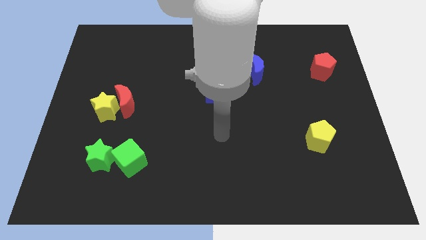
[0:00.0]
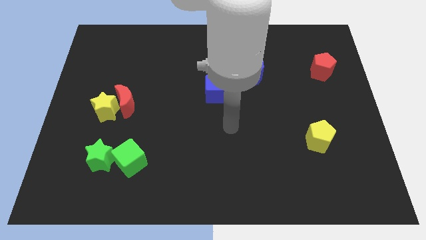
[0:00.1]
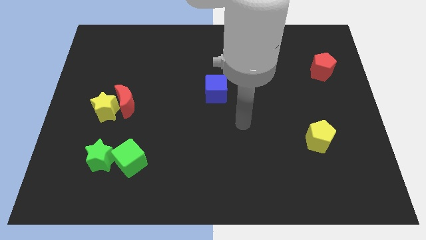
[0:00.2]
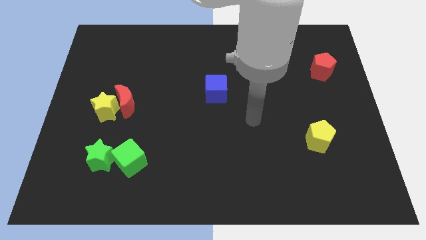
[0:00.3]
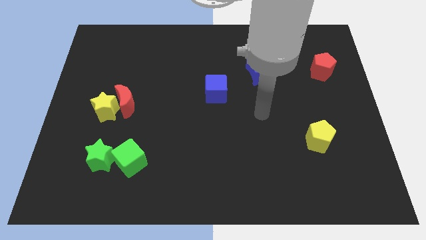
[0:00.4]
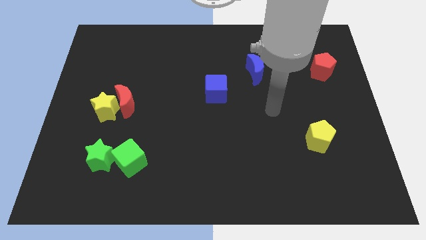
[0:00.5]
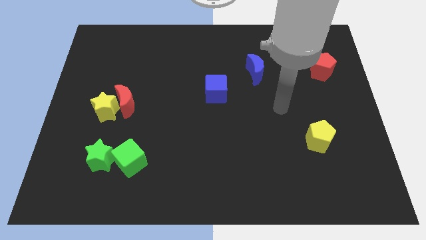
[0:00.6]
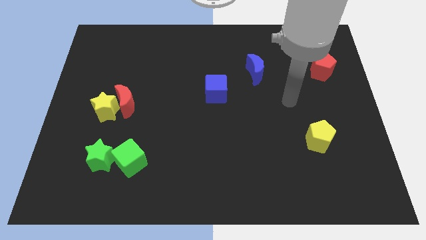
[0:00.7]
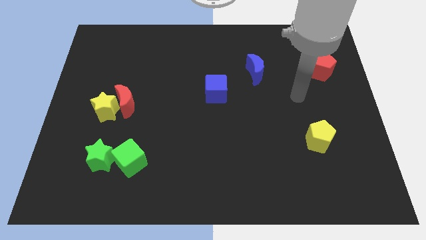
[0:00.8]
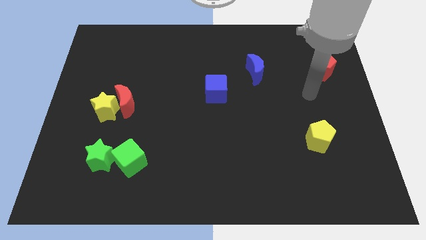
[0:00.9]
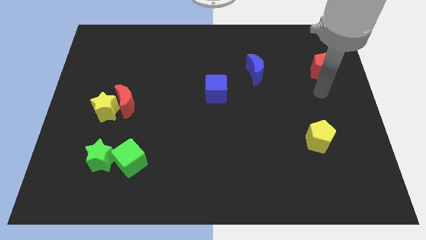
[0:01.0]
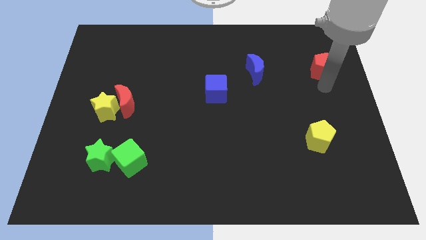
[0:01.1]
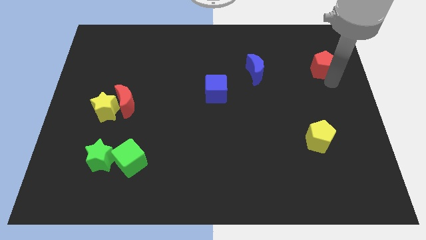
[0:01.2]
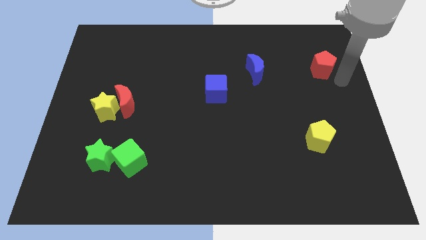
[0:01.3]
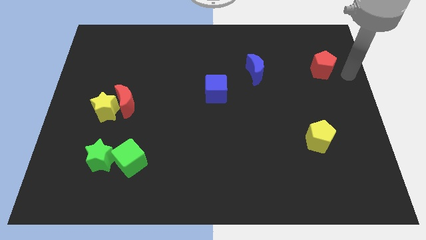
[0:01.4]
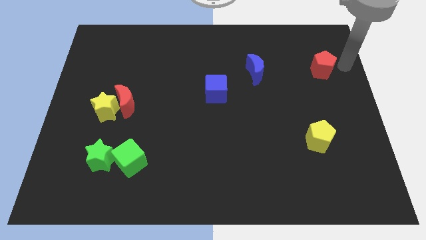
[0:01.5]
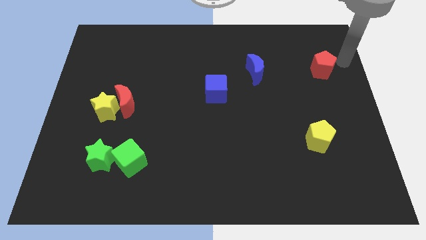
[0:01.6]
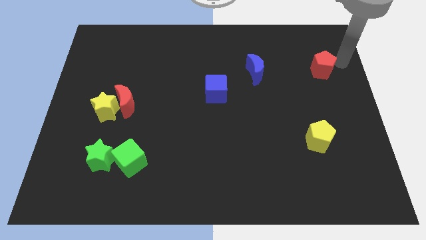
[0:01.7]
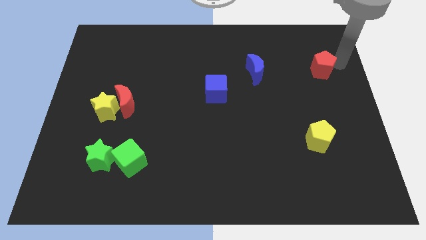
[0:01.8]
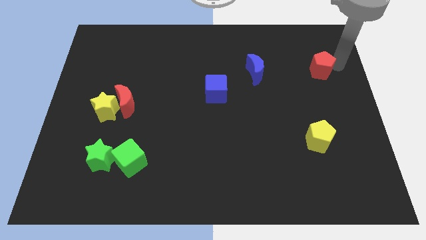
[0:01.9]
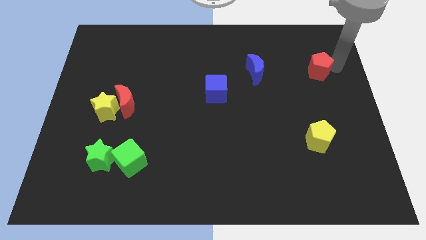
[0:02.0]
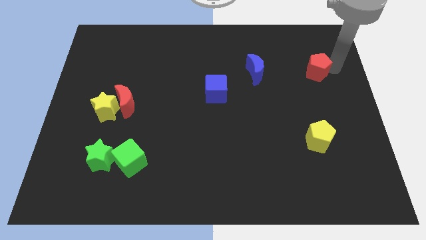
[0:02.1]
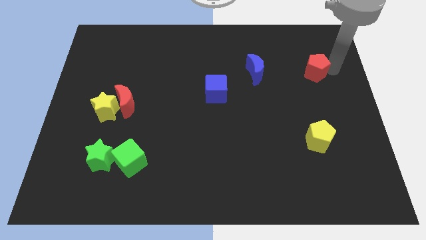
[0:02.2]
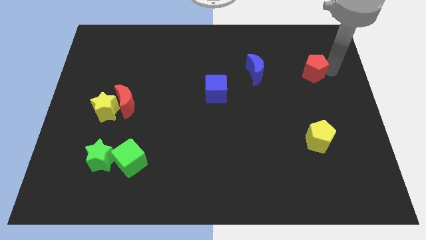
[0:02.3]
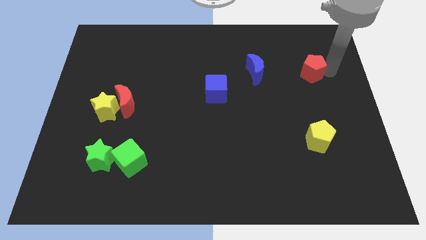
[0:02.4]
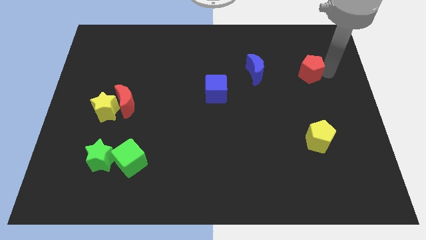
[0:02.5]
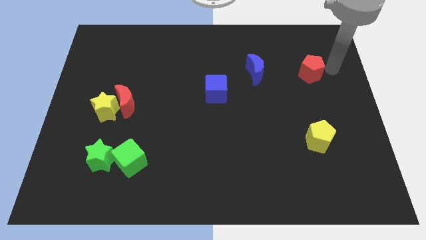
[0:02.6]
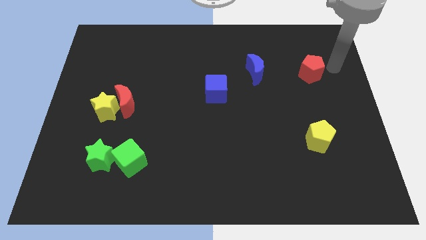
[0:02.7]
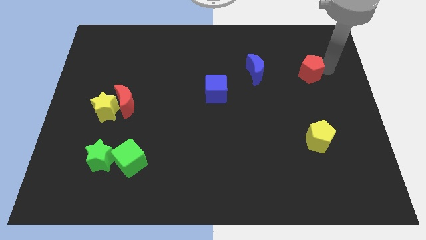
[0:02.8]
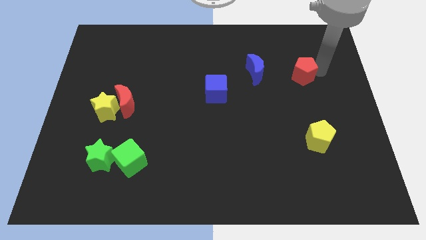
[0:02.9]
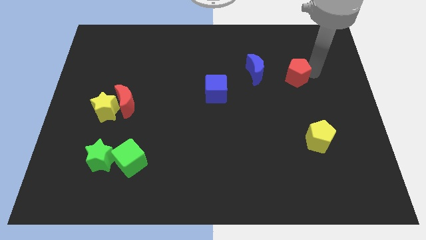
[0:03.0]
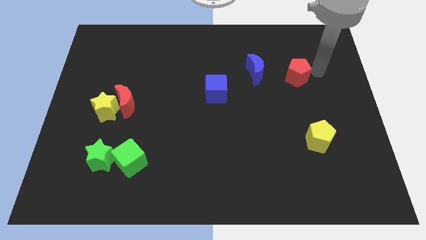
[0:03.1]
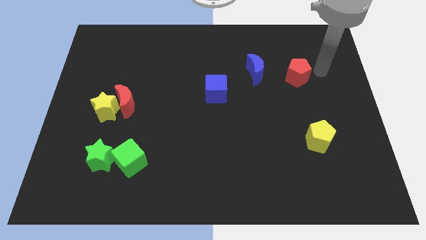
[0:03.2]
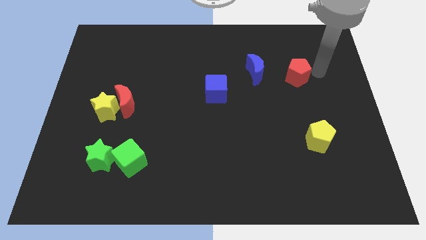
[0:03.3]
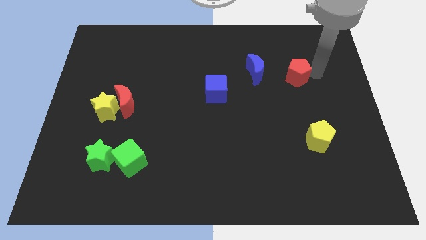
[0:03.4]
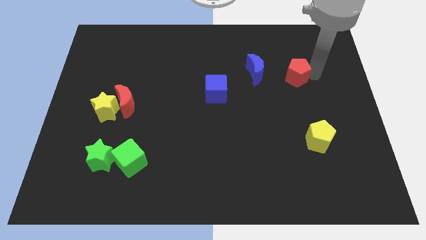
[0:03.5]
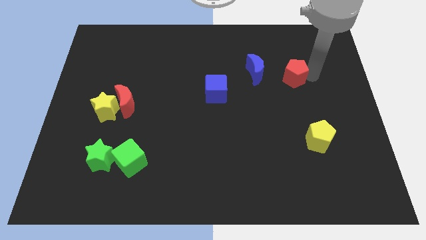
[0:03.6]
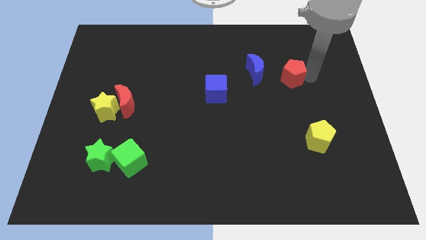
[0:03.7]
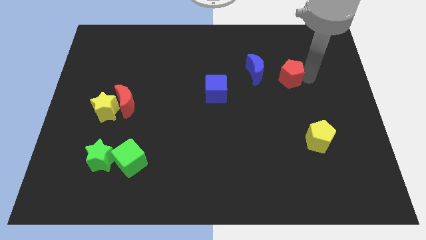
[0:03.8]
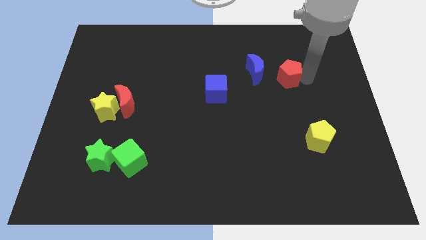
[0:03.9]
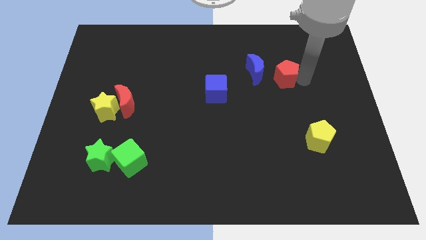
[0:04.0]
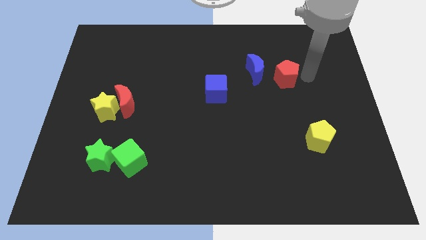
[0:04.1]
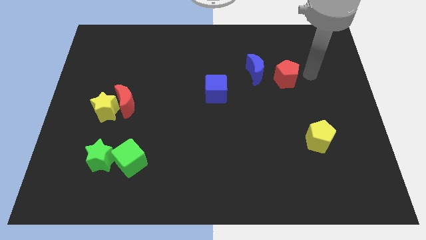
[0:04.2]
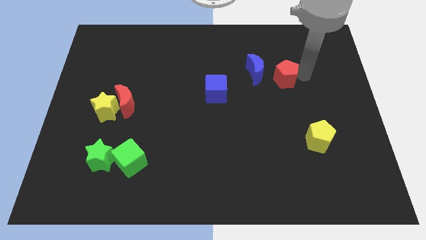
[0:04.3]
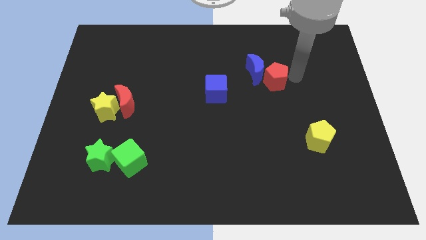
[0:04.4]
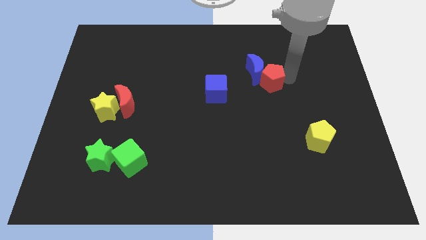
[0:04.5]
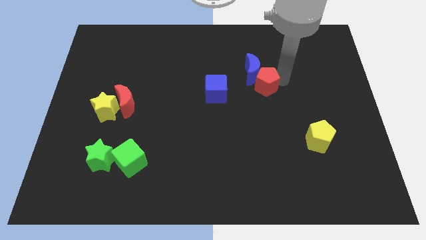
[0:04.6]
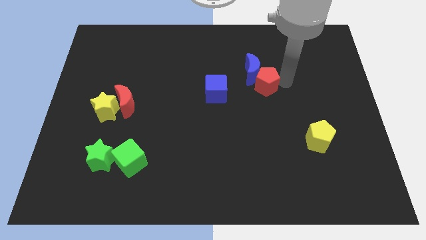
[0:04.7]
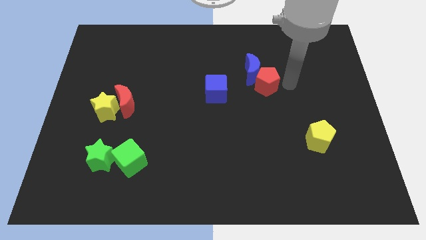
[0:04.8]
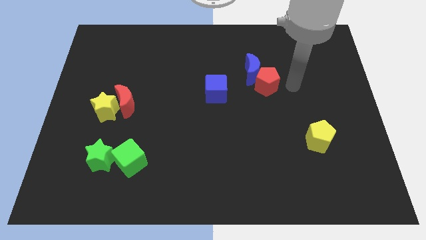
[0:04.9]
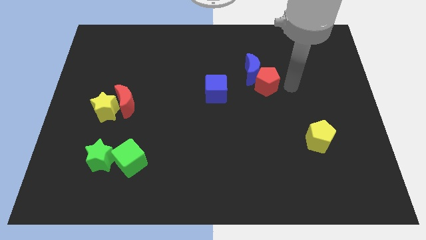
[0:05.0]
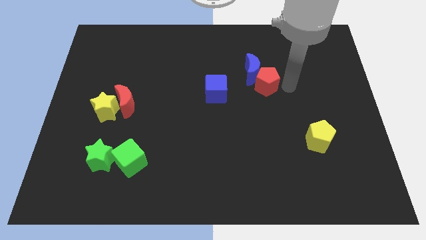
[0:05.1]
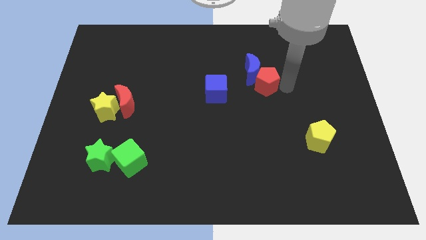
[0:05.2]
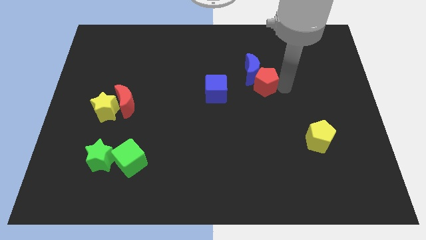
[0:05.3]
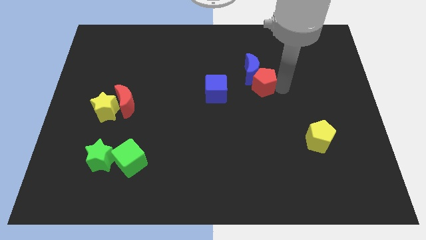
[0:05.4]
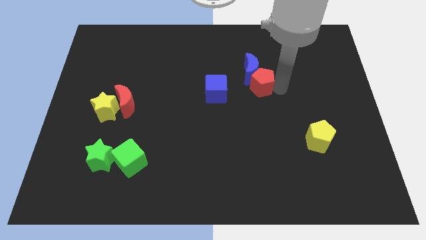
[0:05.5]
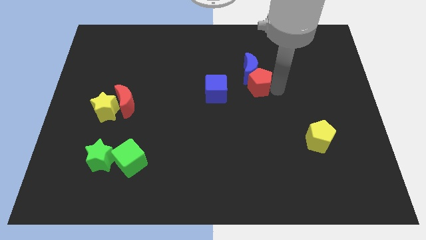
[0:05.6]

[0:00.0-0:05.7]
slide the red pentagon to the bottom left side of the blue moon

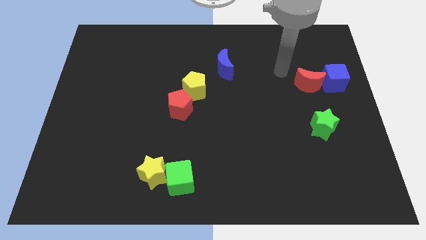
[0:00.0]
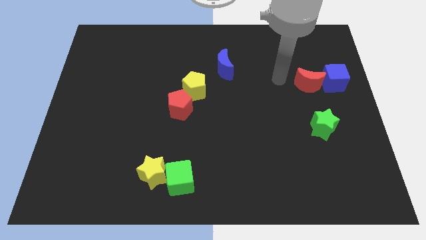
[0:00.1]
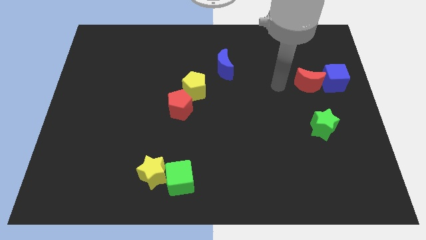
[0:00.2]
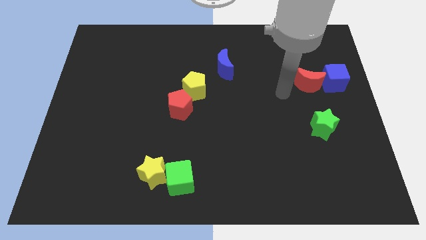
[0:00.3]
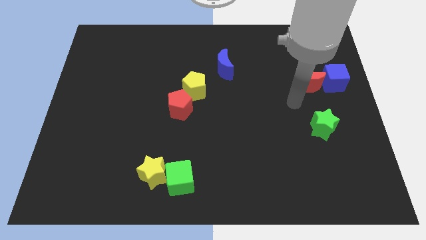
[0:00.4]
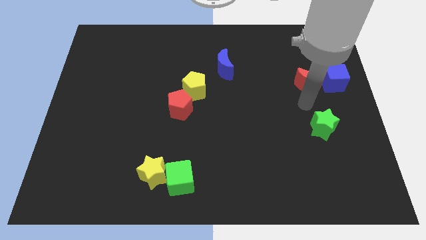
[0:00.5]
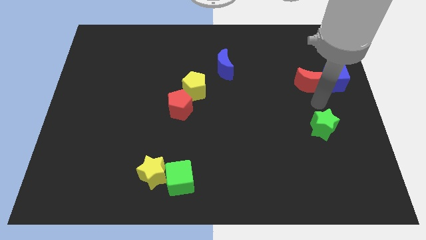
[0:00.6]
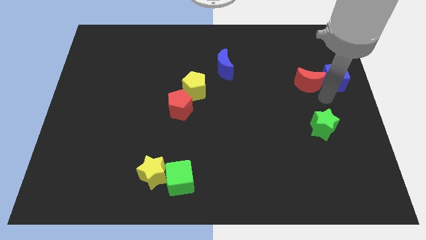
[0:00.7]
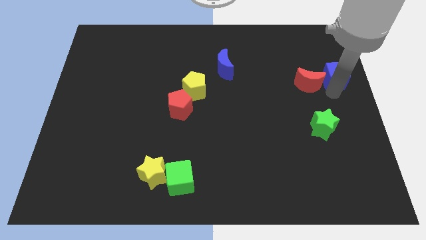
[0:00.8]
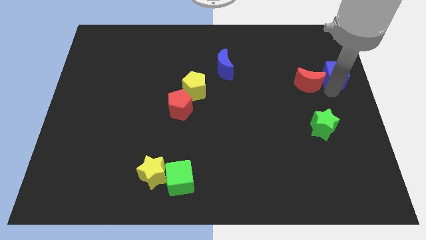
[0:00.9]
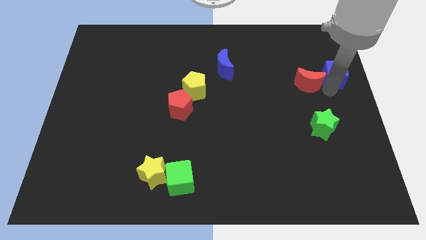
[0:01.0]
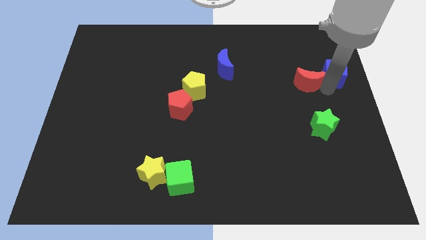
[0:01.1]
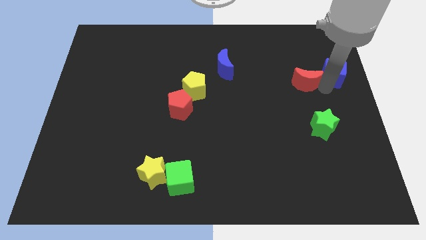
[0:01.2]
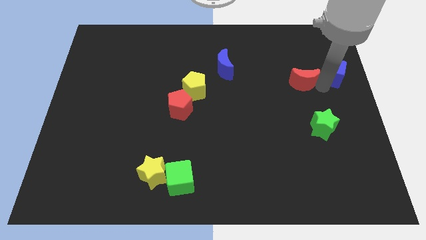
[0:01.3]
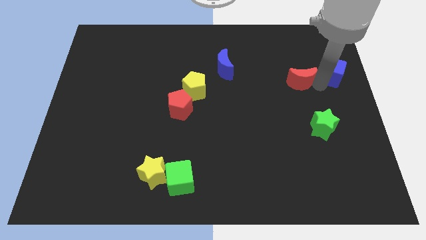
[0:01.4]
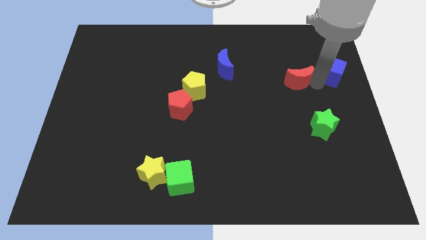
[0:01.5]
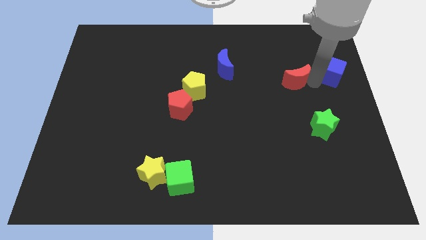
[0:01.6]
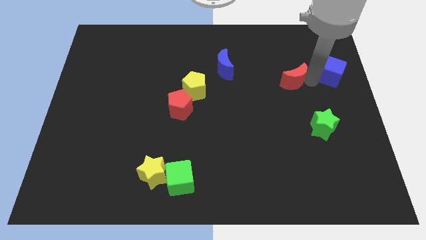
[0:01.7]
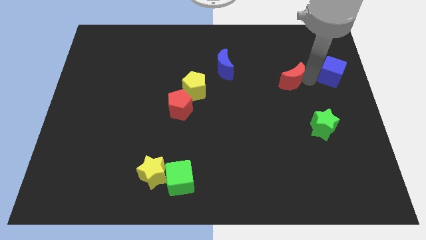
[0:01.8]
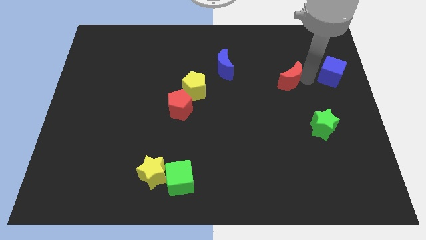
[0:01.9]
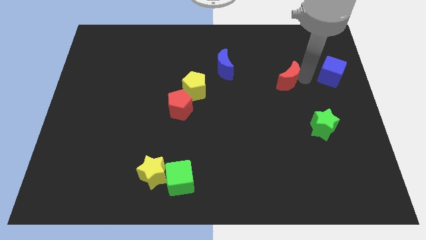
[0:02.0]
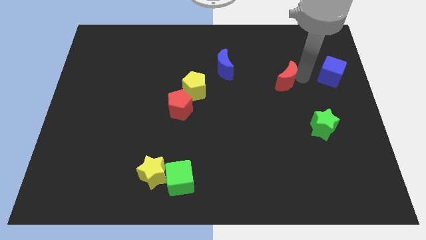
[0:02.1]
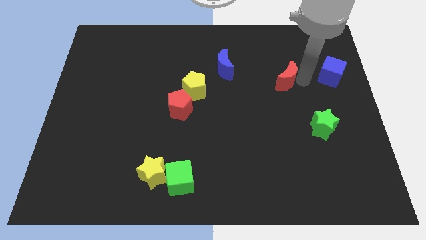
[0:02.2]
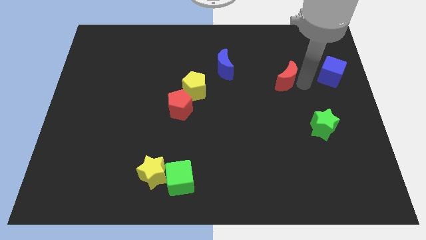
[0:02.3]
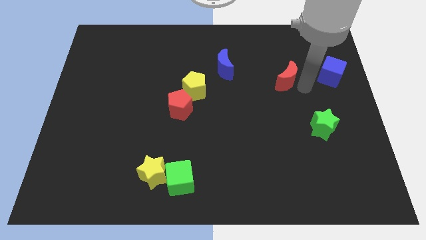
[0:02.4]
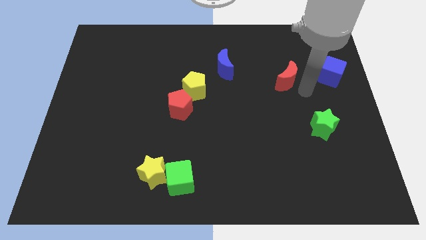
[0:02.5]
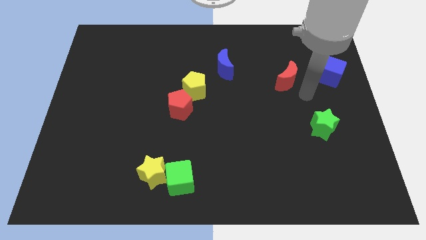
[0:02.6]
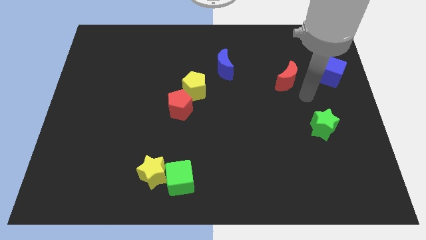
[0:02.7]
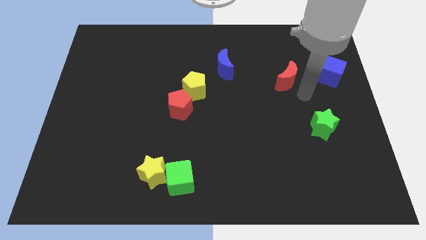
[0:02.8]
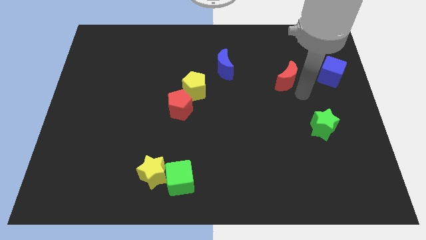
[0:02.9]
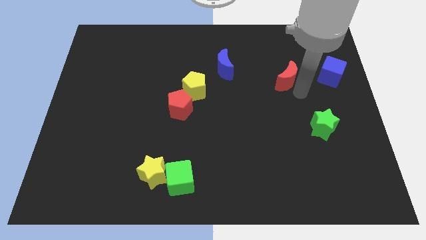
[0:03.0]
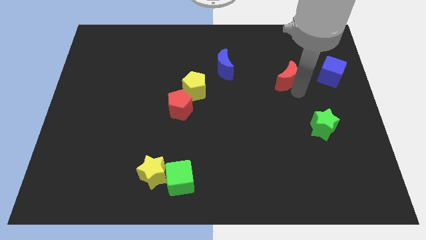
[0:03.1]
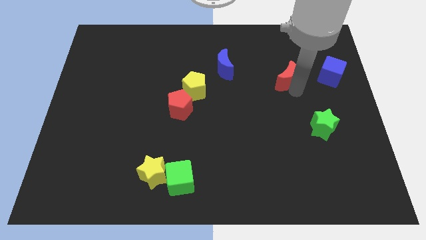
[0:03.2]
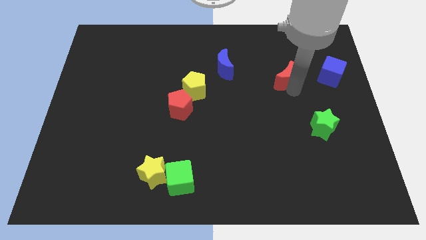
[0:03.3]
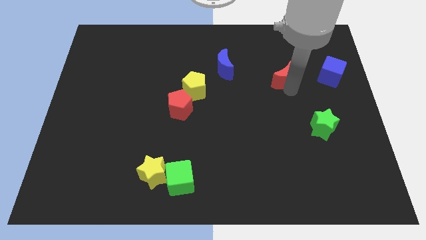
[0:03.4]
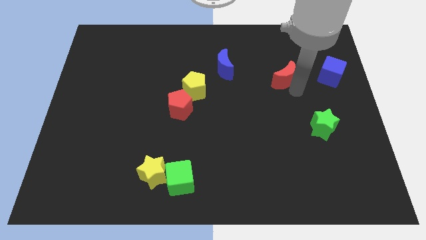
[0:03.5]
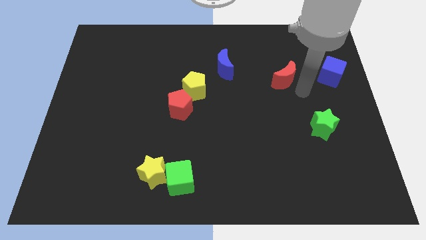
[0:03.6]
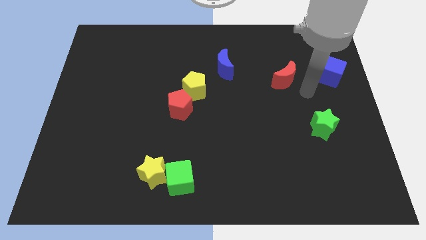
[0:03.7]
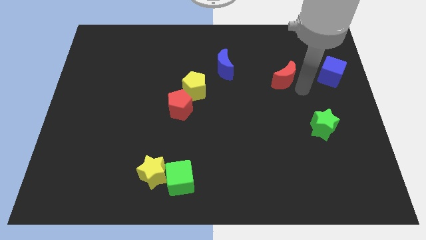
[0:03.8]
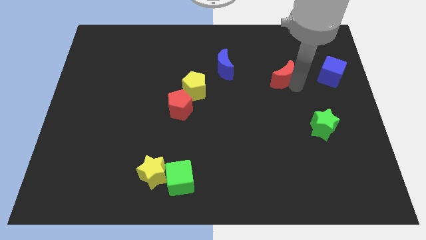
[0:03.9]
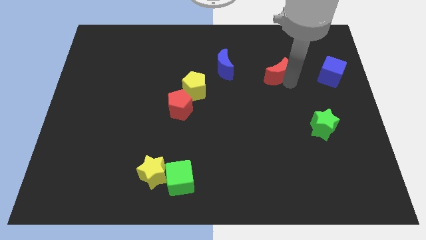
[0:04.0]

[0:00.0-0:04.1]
slide the red moon just right of the blue moon
